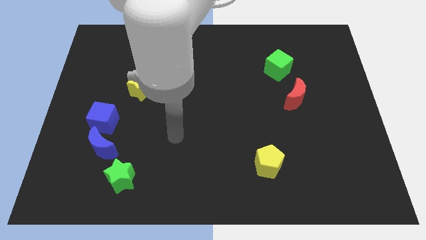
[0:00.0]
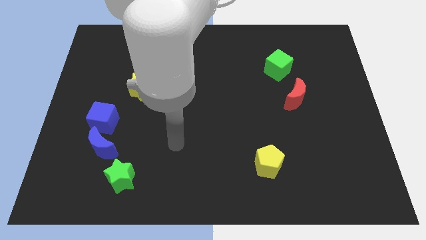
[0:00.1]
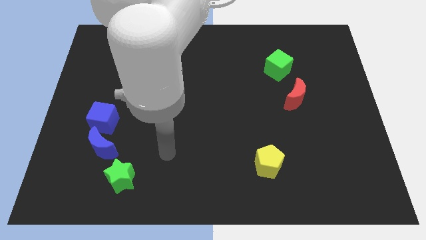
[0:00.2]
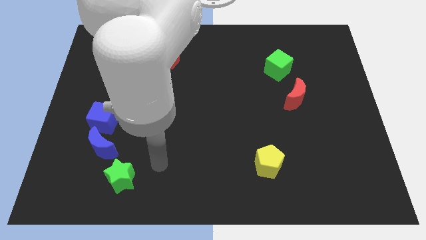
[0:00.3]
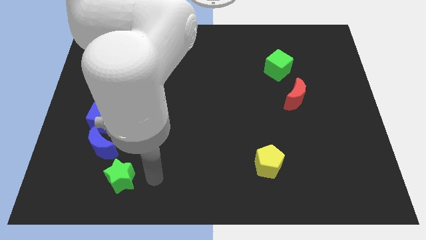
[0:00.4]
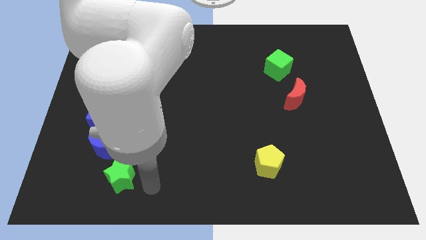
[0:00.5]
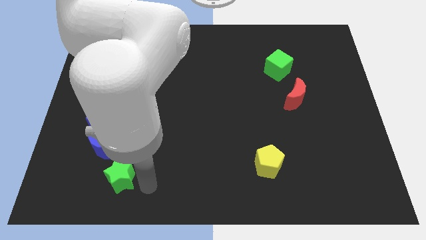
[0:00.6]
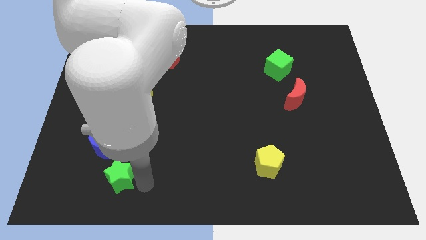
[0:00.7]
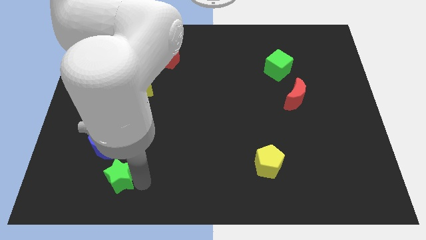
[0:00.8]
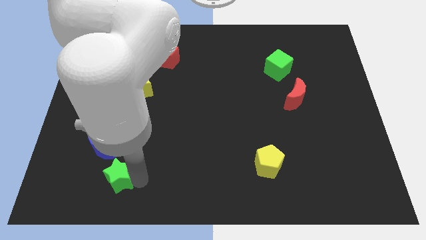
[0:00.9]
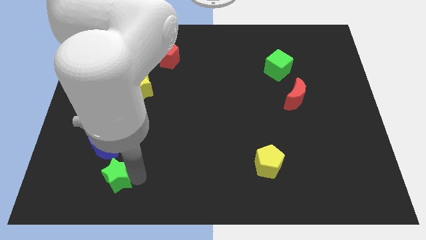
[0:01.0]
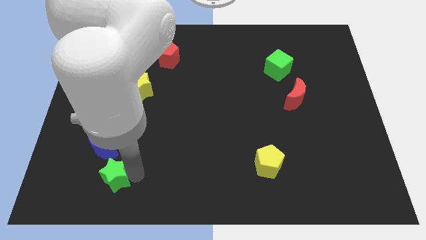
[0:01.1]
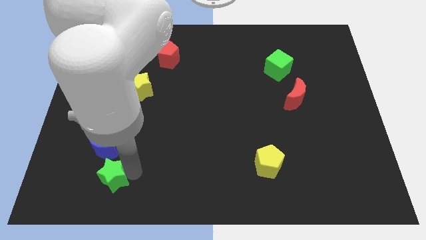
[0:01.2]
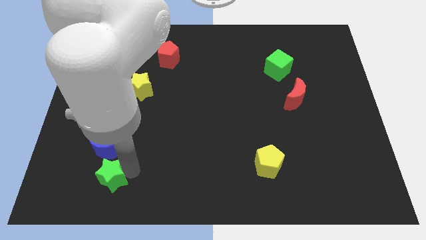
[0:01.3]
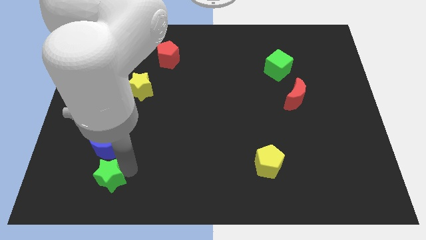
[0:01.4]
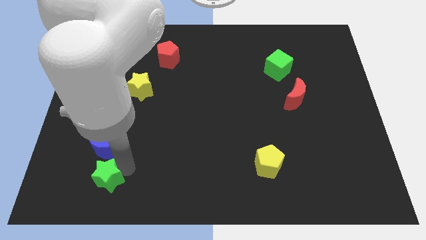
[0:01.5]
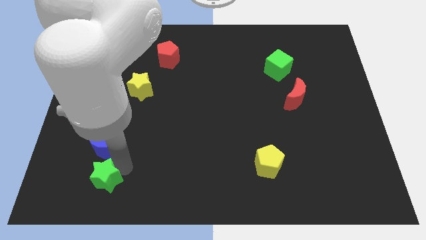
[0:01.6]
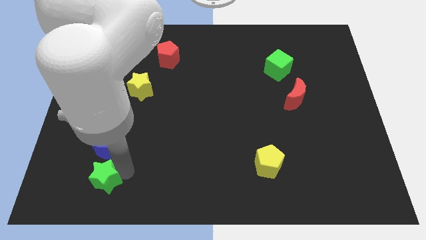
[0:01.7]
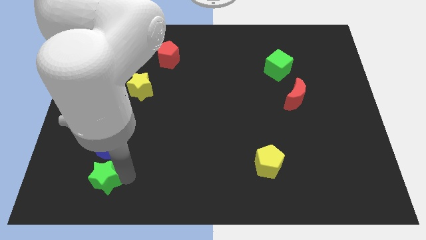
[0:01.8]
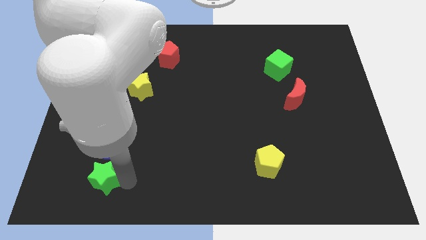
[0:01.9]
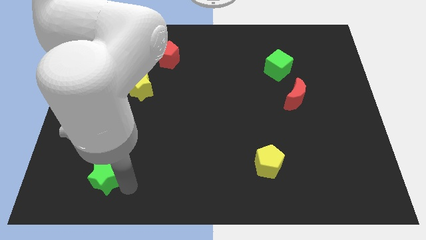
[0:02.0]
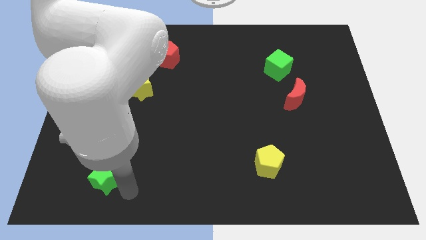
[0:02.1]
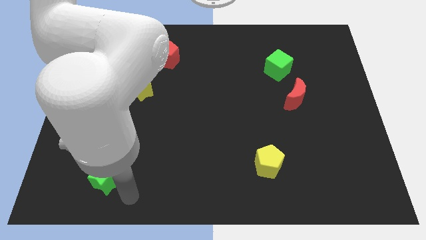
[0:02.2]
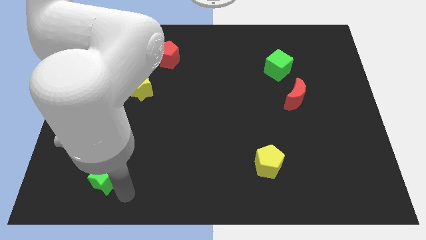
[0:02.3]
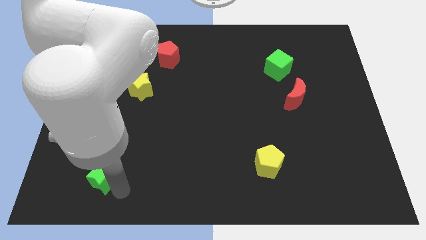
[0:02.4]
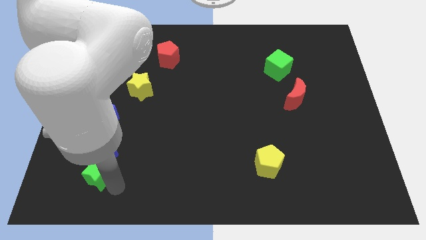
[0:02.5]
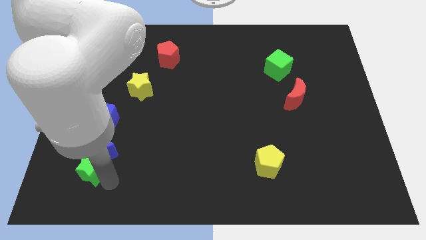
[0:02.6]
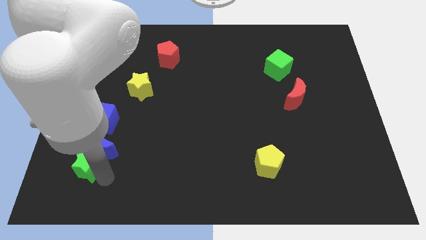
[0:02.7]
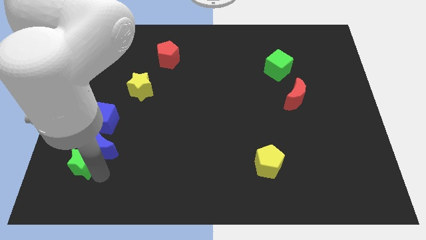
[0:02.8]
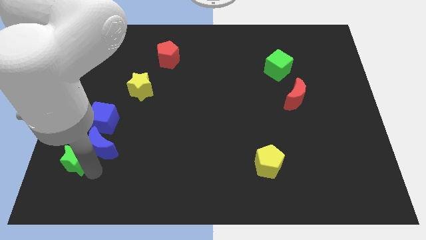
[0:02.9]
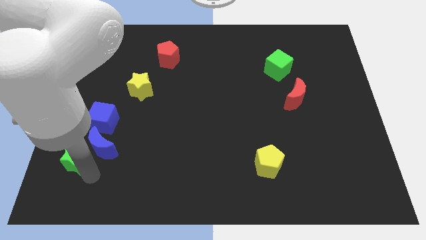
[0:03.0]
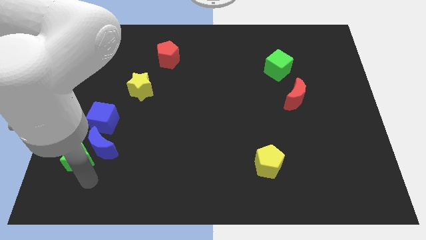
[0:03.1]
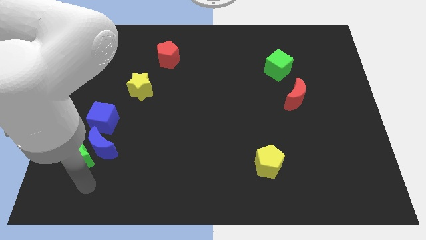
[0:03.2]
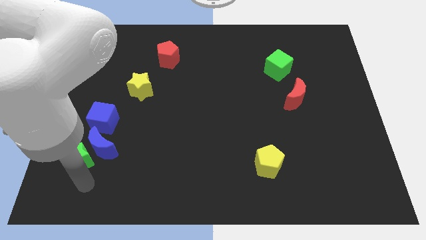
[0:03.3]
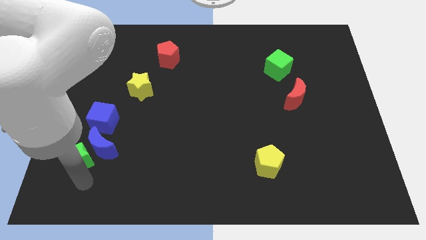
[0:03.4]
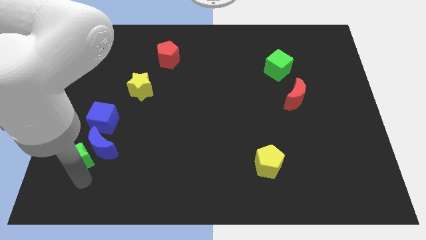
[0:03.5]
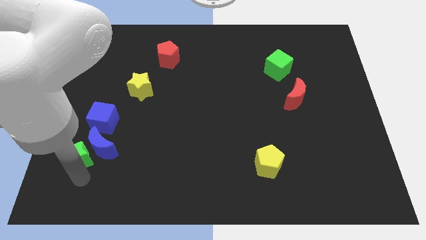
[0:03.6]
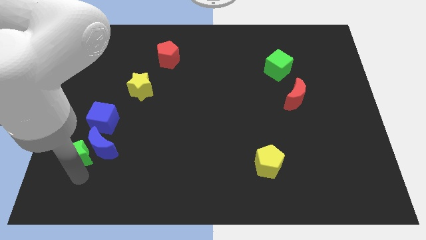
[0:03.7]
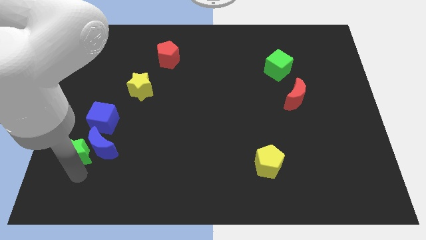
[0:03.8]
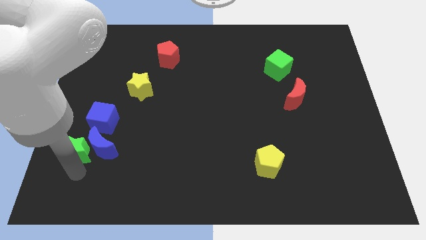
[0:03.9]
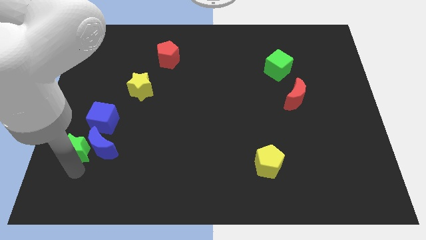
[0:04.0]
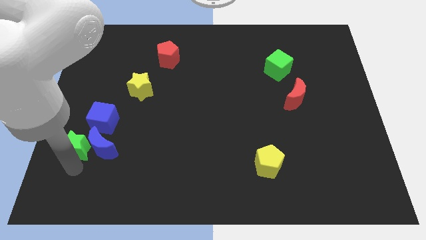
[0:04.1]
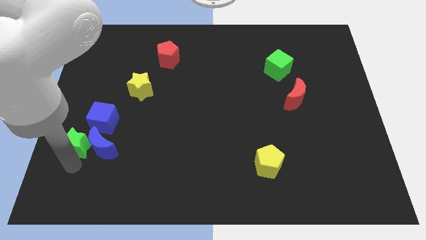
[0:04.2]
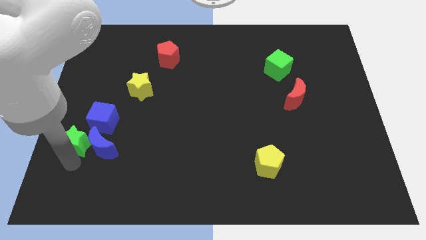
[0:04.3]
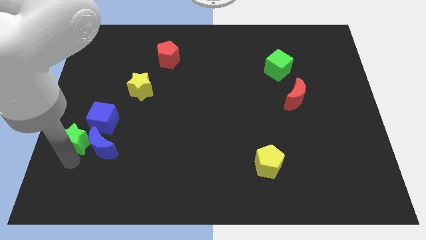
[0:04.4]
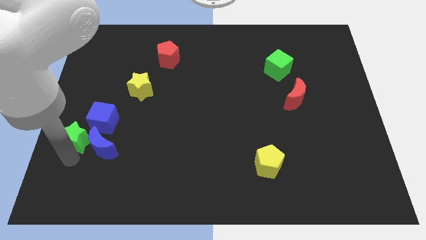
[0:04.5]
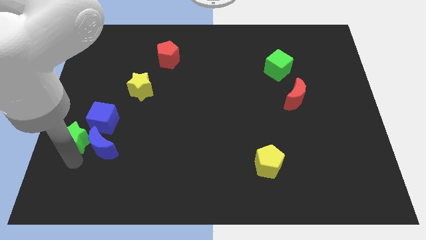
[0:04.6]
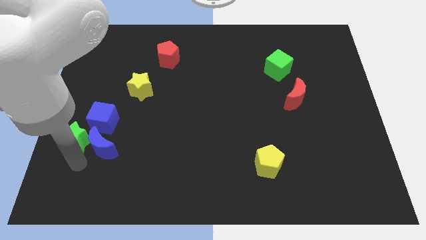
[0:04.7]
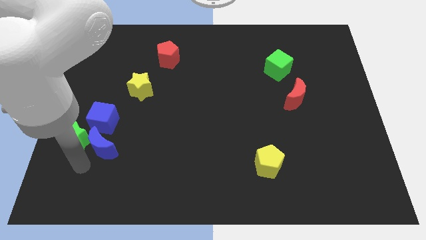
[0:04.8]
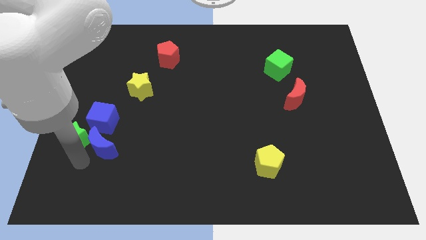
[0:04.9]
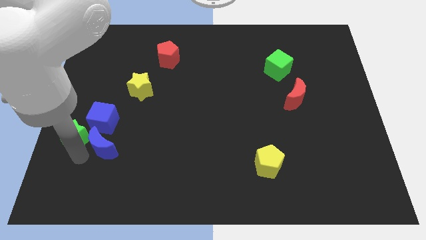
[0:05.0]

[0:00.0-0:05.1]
put the green star to the left side

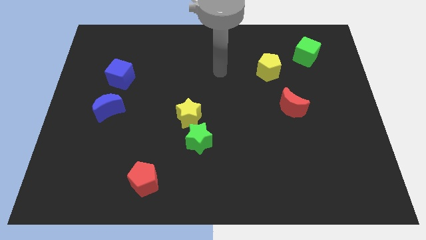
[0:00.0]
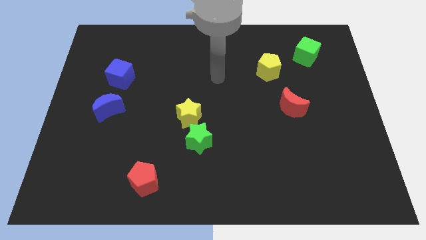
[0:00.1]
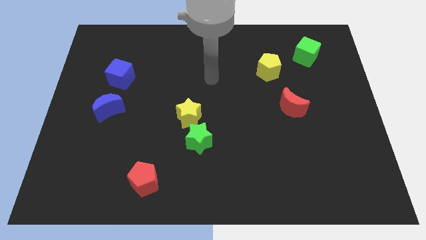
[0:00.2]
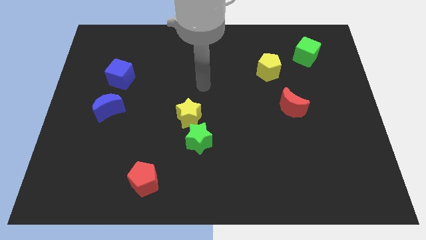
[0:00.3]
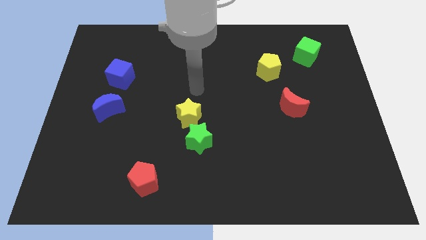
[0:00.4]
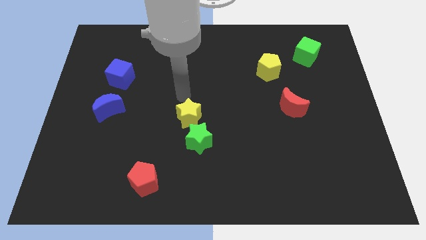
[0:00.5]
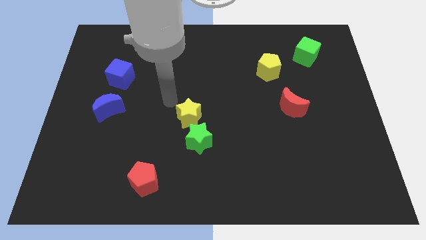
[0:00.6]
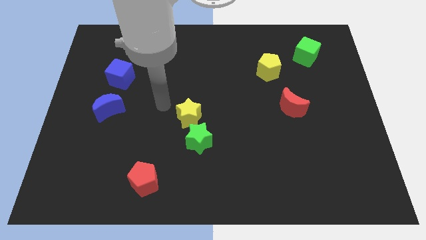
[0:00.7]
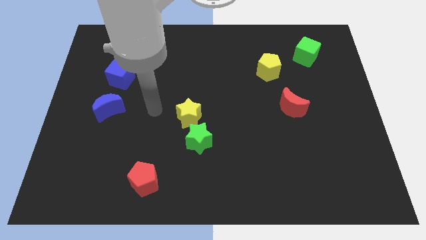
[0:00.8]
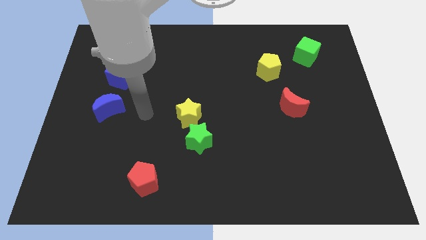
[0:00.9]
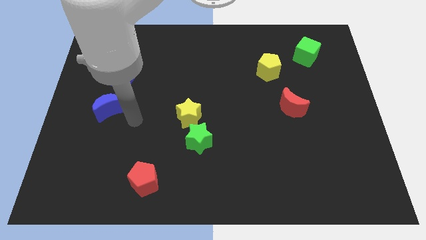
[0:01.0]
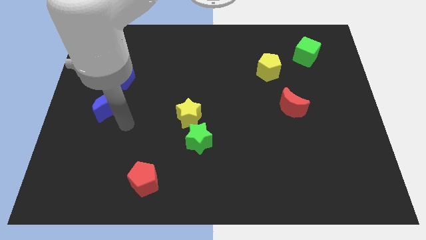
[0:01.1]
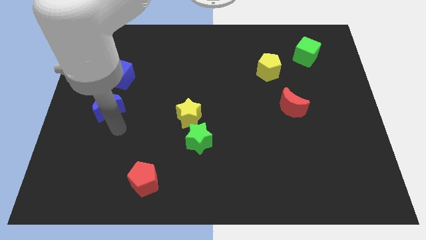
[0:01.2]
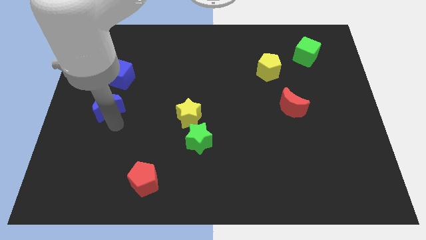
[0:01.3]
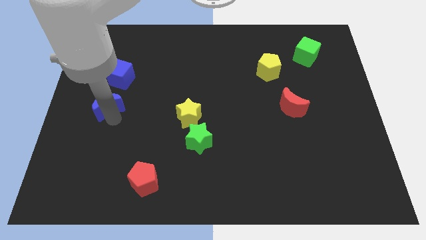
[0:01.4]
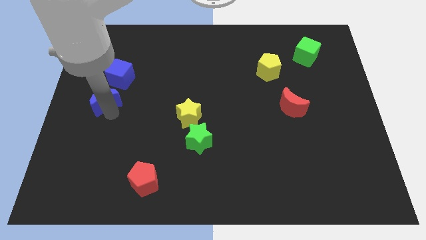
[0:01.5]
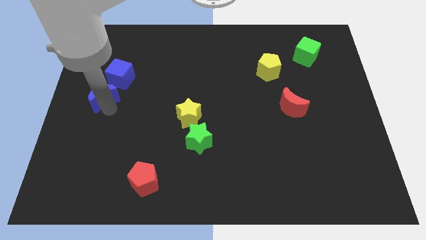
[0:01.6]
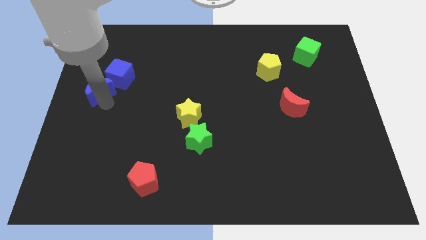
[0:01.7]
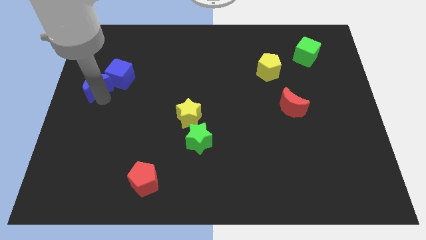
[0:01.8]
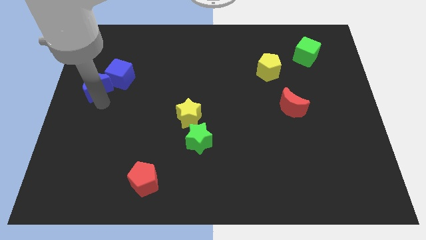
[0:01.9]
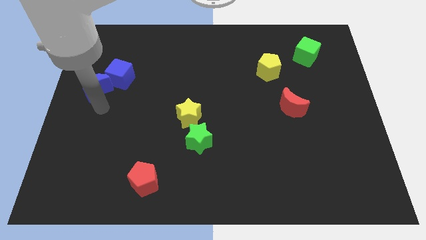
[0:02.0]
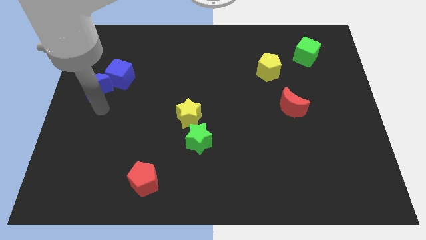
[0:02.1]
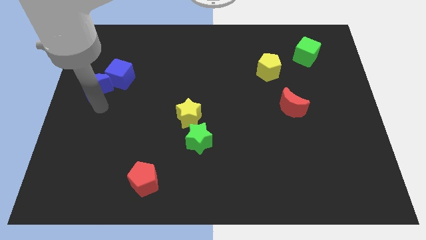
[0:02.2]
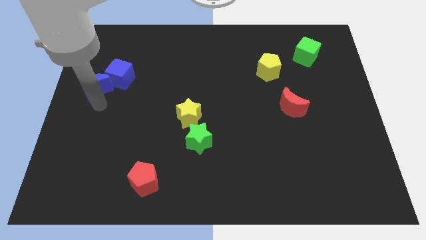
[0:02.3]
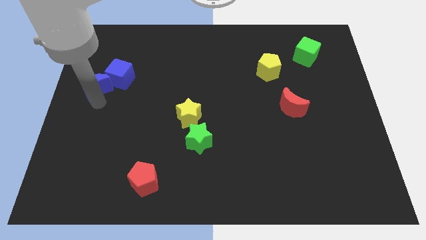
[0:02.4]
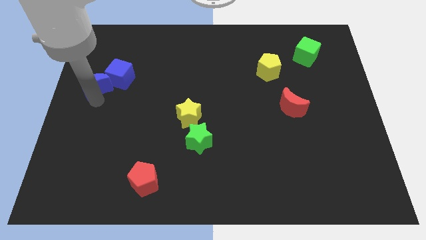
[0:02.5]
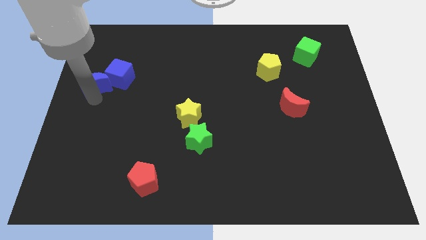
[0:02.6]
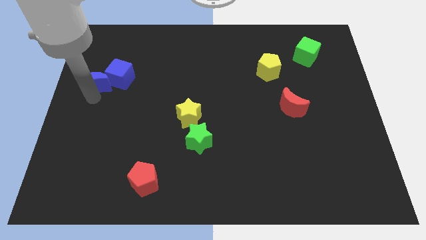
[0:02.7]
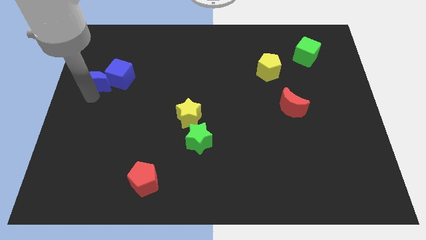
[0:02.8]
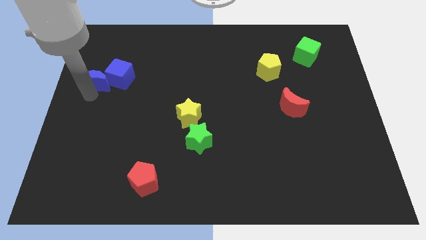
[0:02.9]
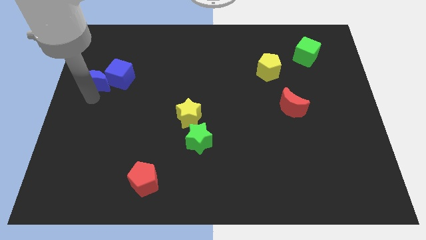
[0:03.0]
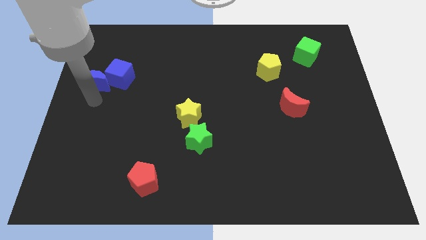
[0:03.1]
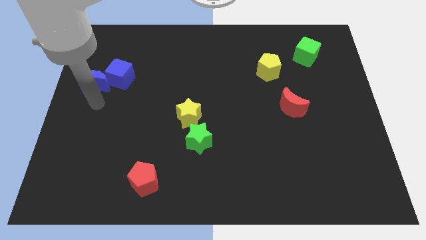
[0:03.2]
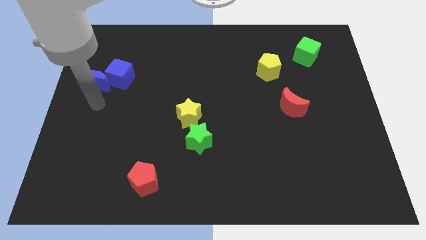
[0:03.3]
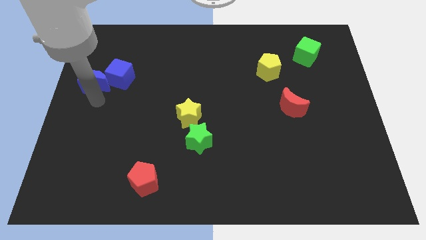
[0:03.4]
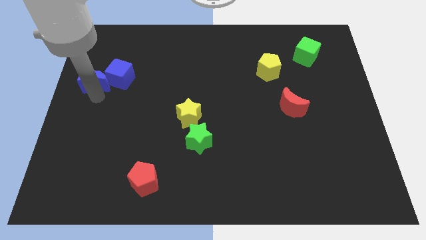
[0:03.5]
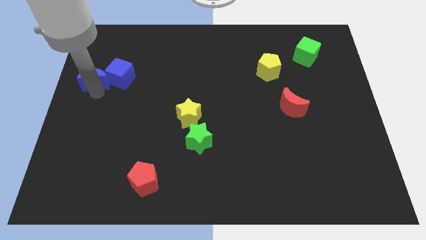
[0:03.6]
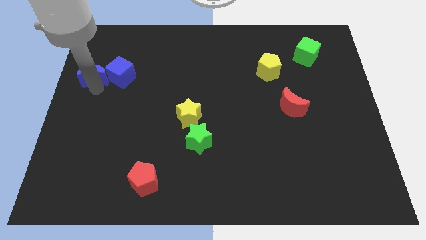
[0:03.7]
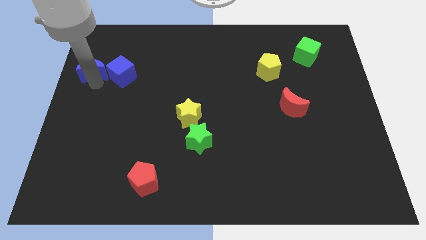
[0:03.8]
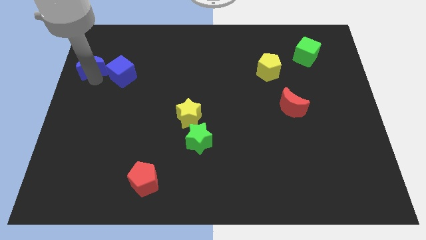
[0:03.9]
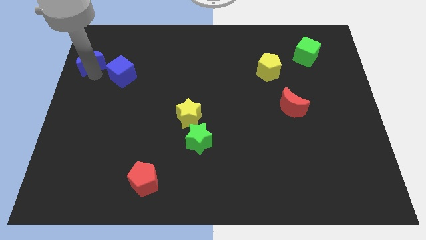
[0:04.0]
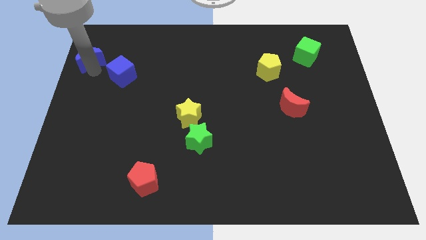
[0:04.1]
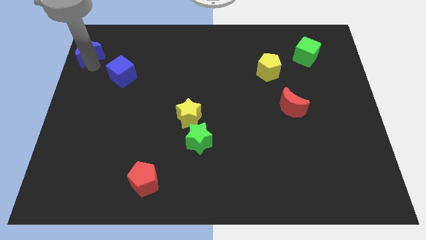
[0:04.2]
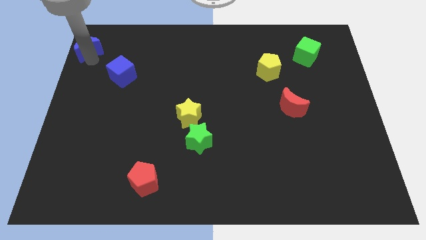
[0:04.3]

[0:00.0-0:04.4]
put the blue moon to the top left corner
